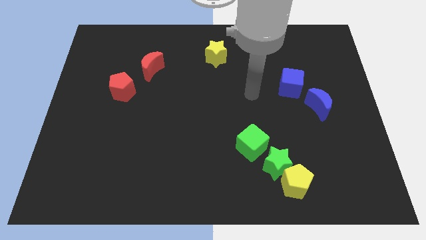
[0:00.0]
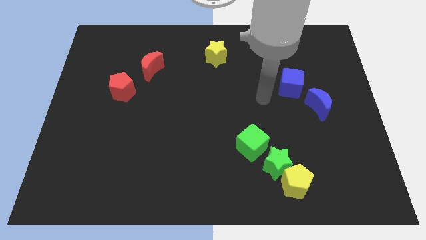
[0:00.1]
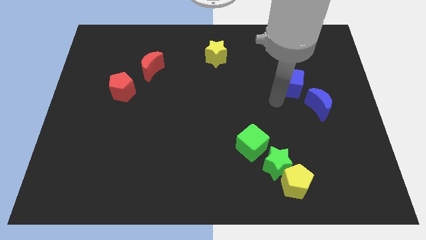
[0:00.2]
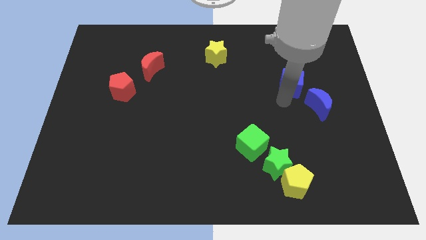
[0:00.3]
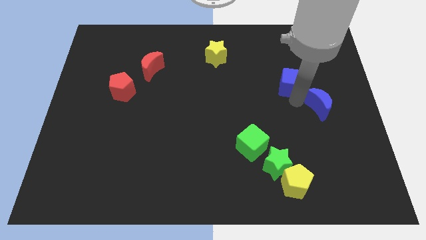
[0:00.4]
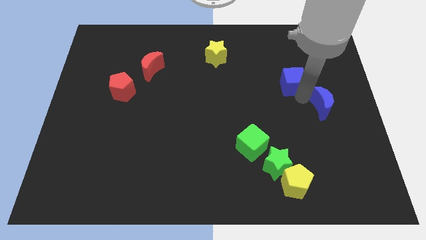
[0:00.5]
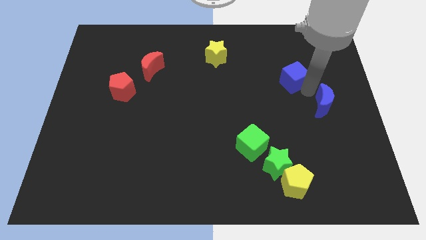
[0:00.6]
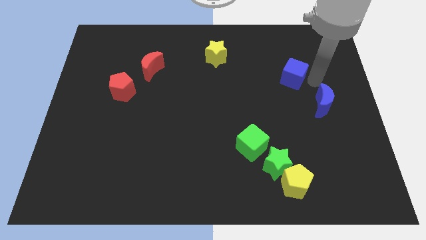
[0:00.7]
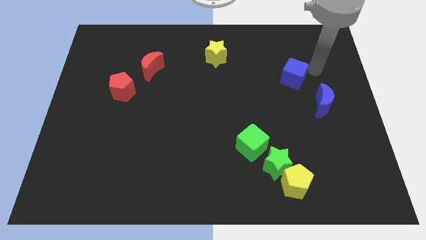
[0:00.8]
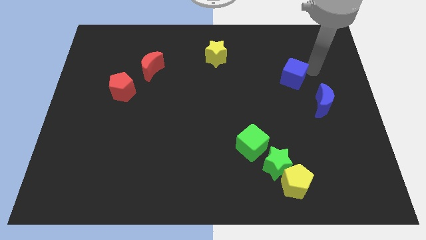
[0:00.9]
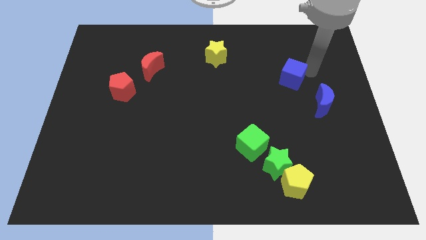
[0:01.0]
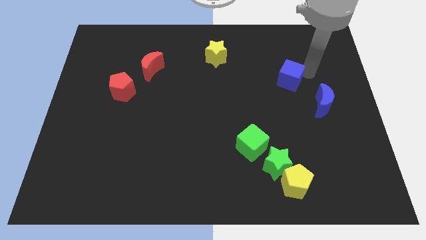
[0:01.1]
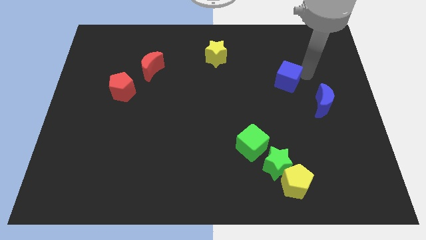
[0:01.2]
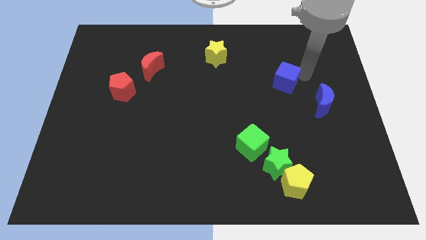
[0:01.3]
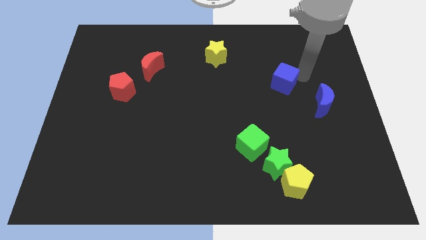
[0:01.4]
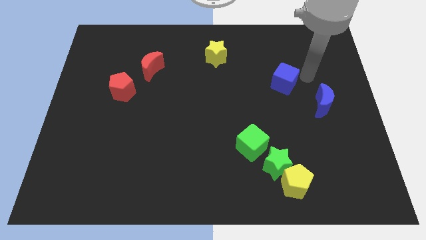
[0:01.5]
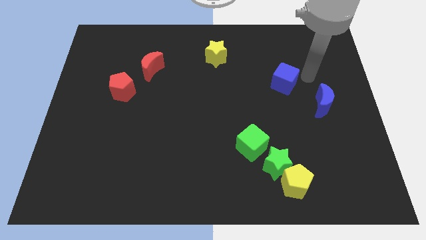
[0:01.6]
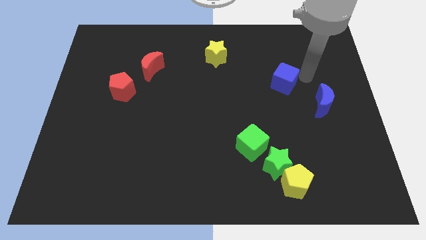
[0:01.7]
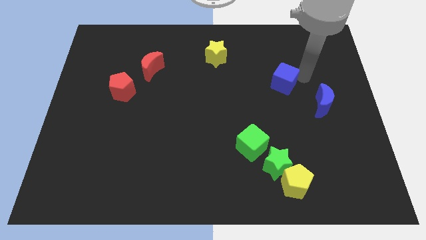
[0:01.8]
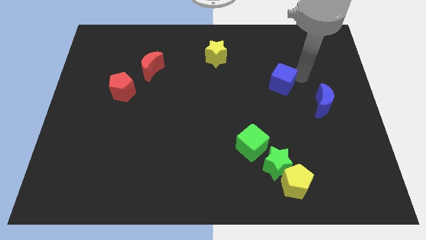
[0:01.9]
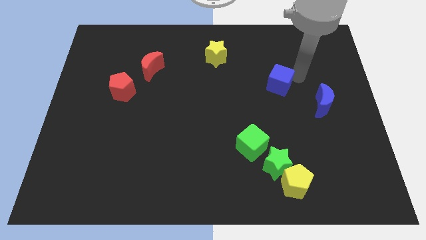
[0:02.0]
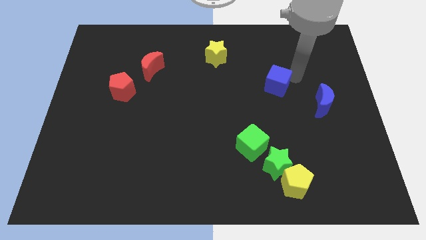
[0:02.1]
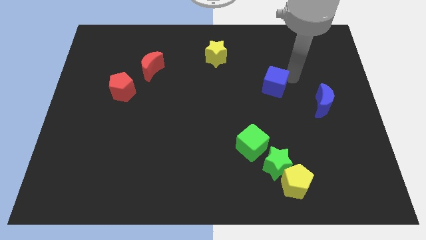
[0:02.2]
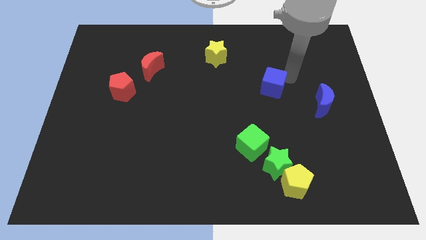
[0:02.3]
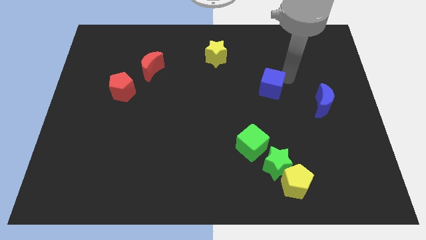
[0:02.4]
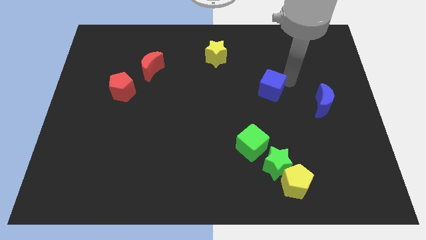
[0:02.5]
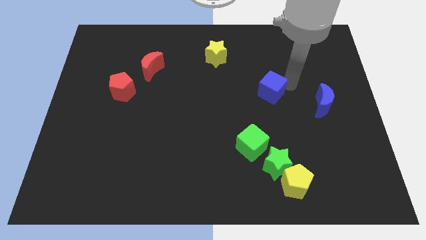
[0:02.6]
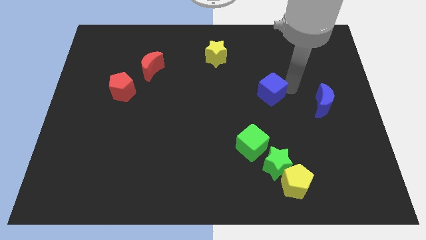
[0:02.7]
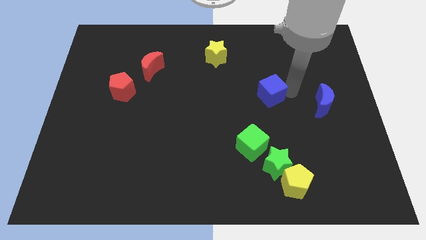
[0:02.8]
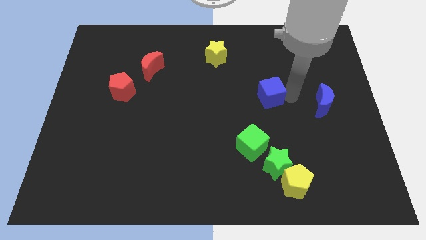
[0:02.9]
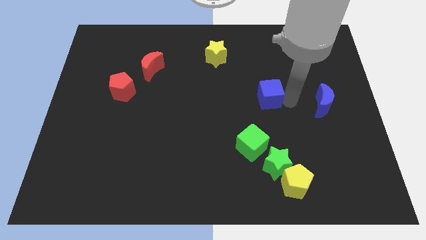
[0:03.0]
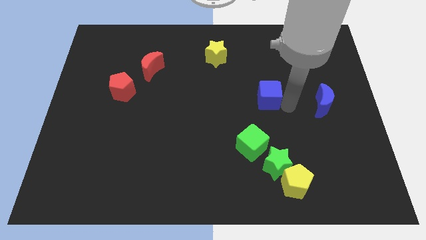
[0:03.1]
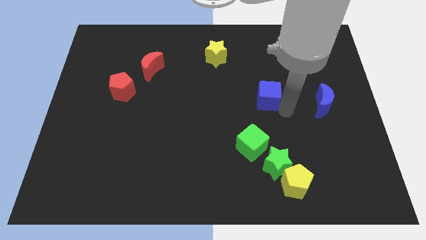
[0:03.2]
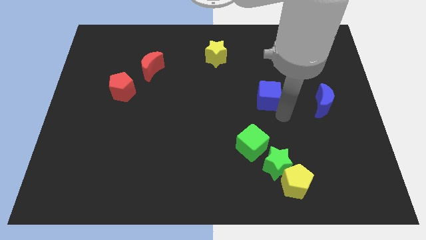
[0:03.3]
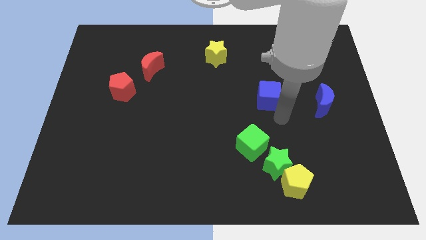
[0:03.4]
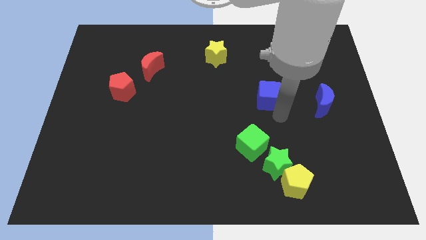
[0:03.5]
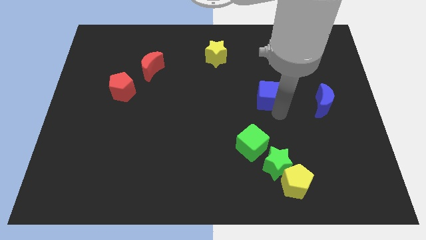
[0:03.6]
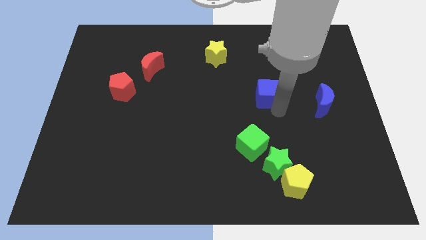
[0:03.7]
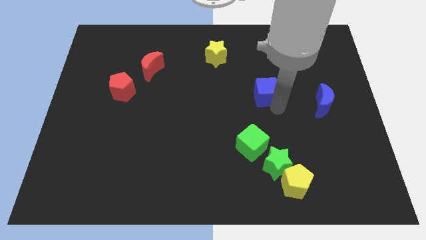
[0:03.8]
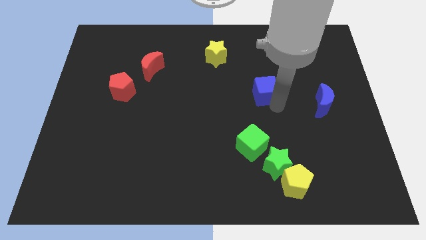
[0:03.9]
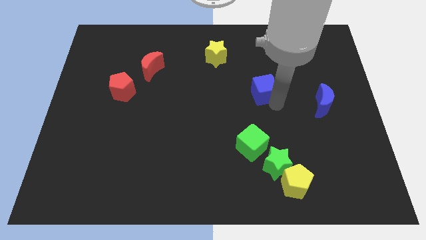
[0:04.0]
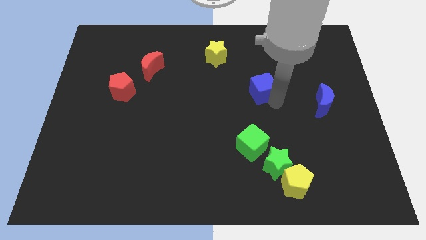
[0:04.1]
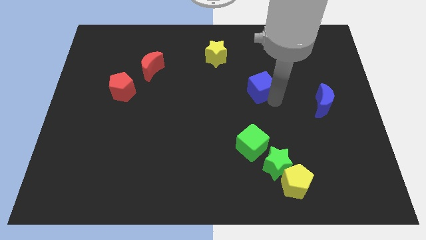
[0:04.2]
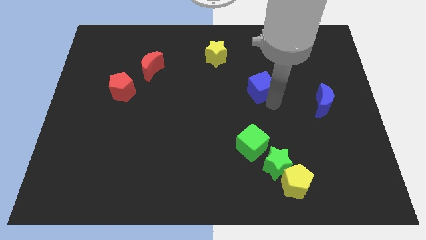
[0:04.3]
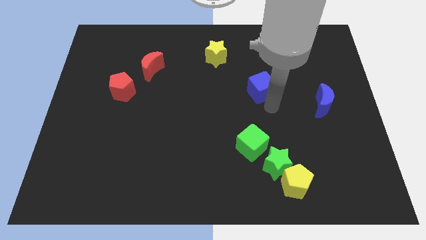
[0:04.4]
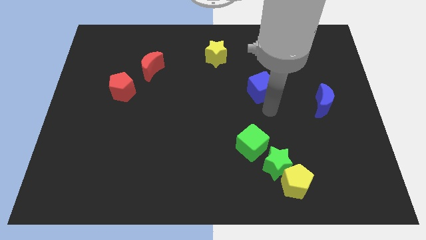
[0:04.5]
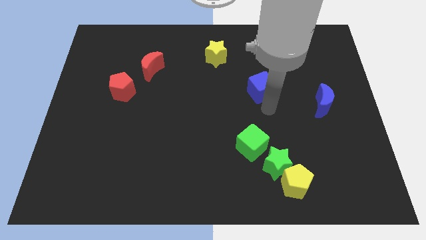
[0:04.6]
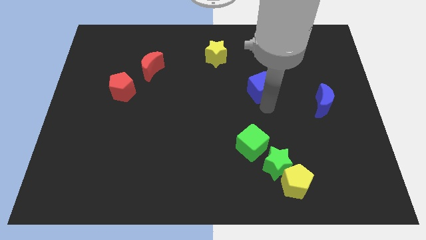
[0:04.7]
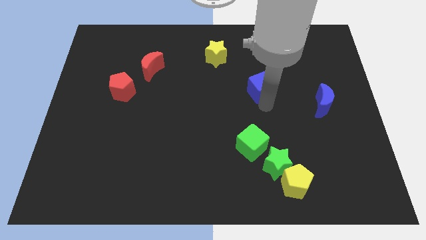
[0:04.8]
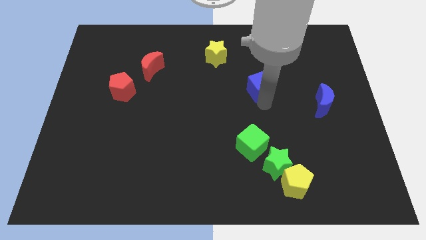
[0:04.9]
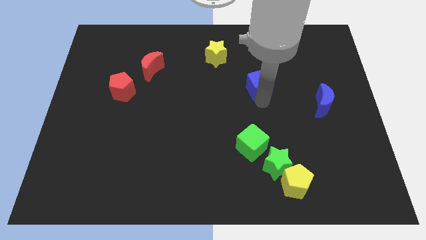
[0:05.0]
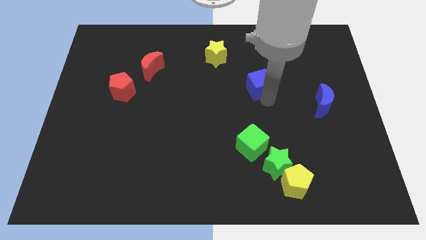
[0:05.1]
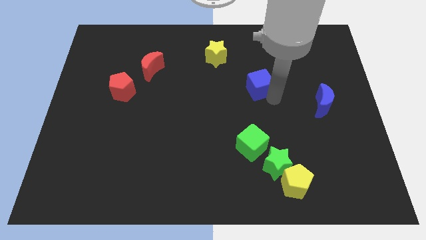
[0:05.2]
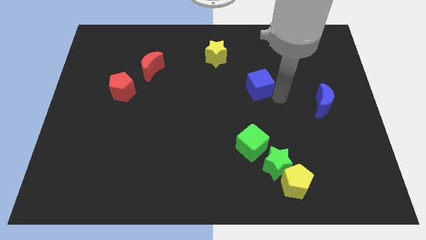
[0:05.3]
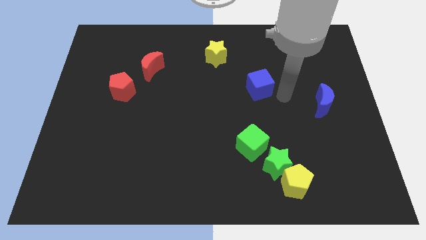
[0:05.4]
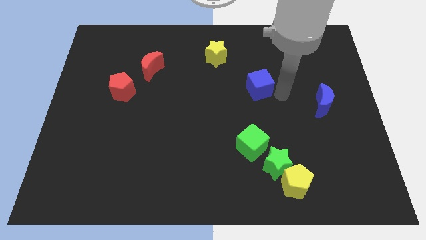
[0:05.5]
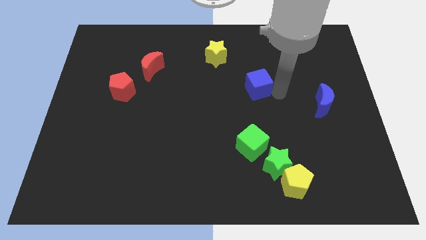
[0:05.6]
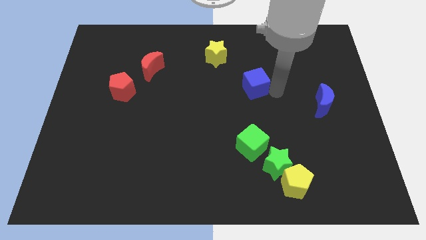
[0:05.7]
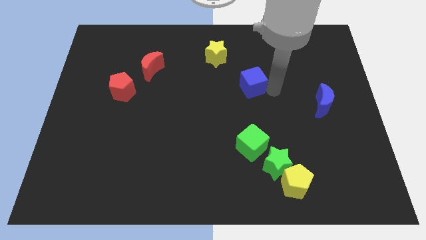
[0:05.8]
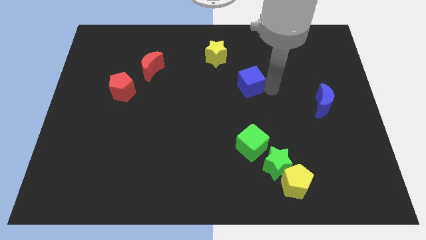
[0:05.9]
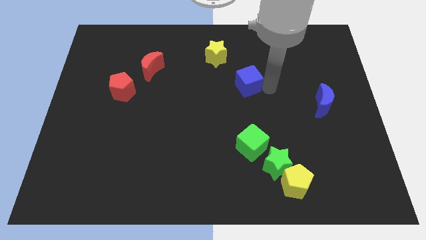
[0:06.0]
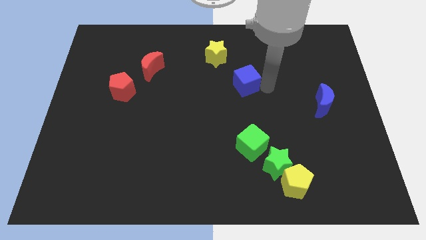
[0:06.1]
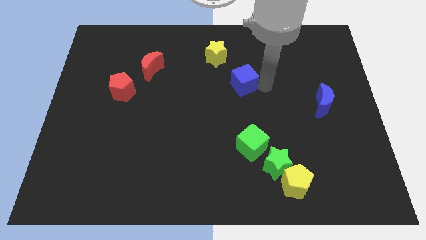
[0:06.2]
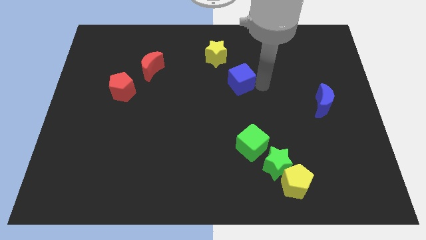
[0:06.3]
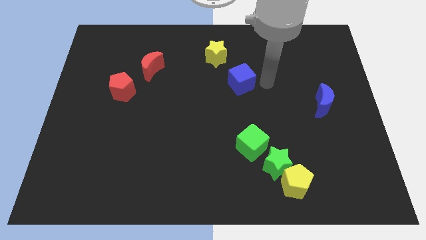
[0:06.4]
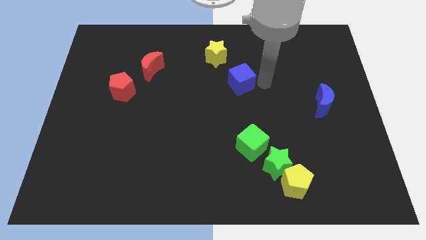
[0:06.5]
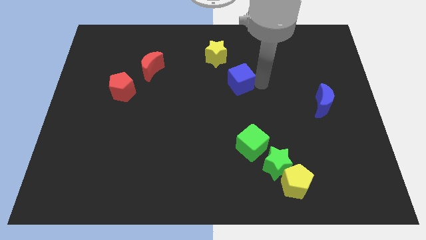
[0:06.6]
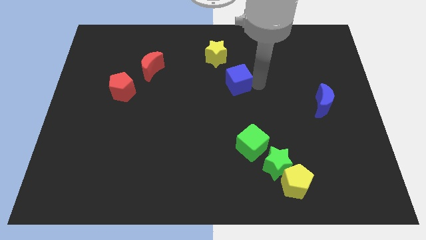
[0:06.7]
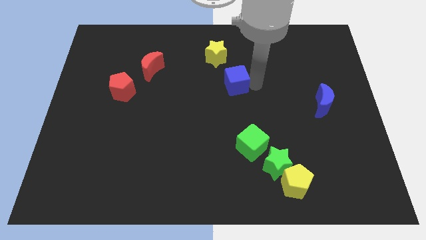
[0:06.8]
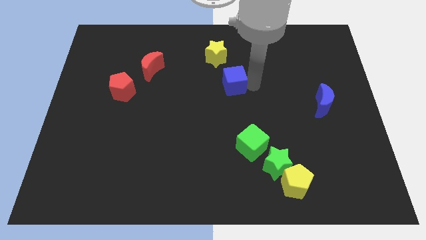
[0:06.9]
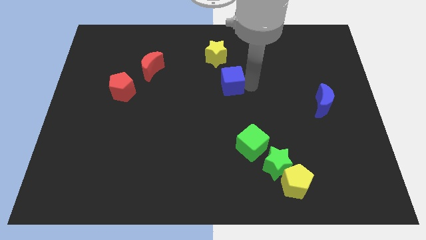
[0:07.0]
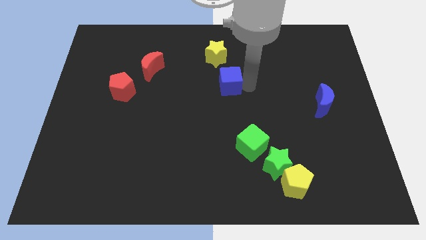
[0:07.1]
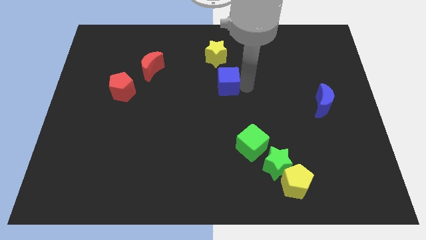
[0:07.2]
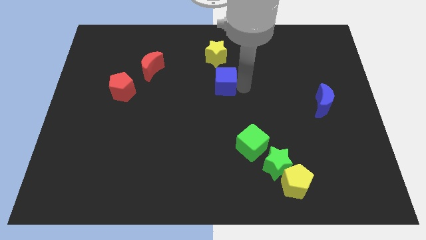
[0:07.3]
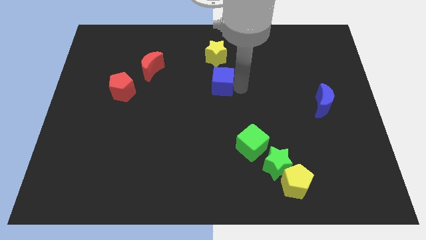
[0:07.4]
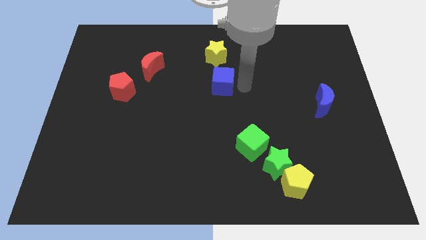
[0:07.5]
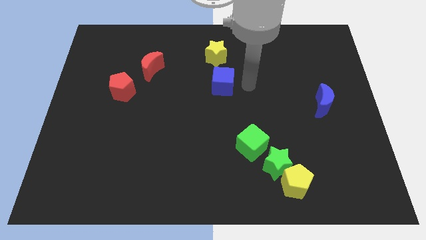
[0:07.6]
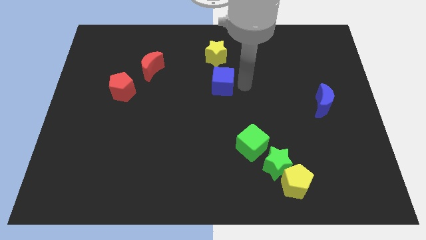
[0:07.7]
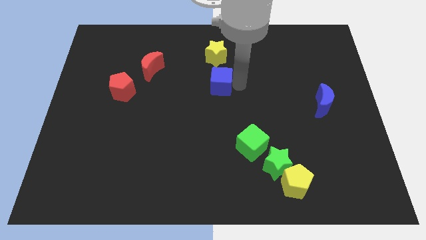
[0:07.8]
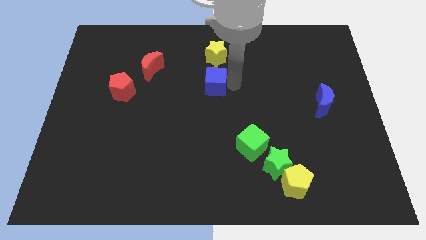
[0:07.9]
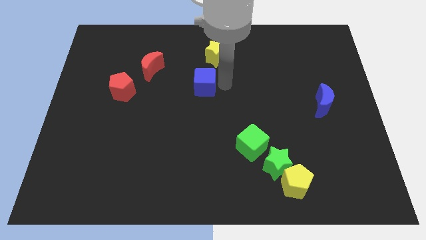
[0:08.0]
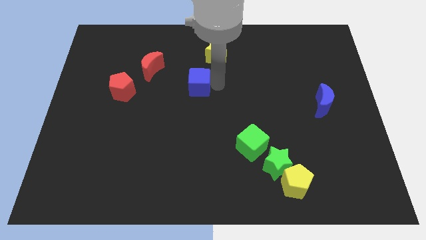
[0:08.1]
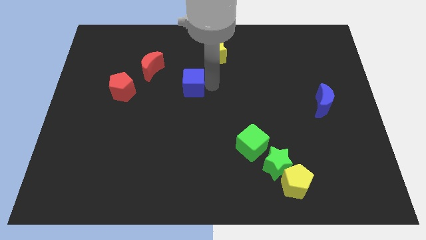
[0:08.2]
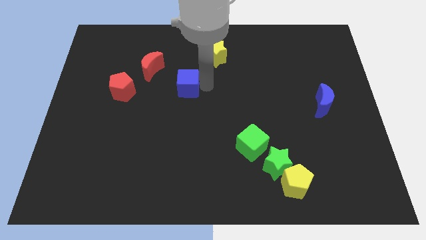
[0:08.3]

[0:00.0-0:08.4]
push the blue cube just right of the red pentagon
